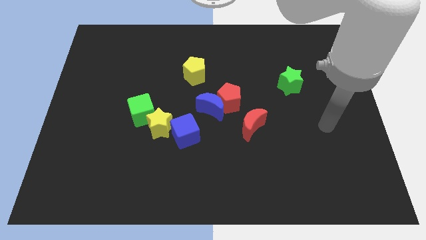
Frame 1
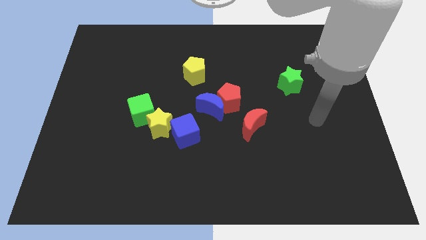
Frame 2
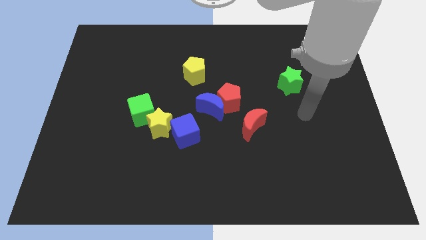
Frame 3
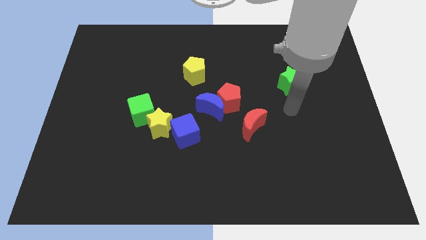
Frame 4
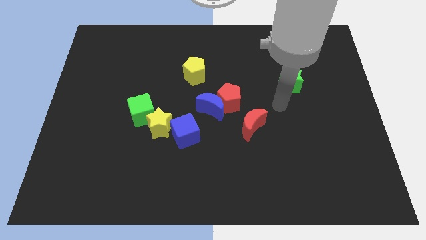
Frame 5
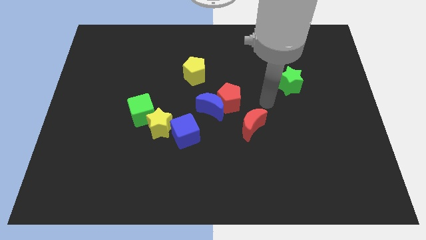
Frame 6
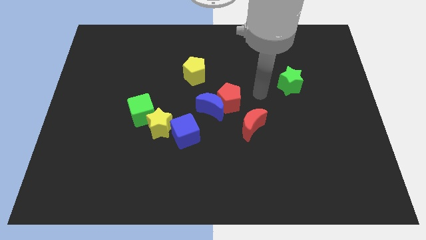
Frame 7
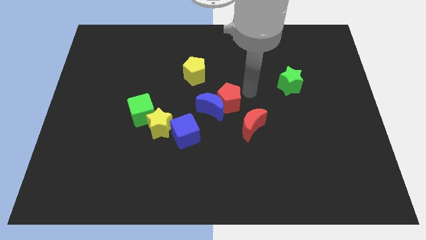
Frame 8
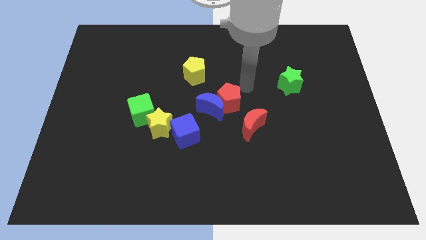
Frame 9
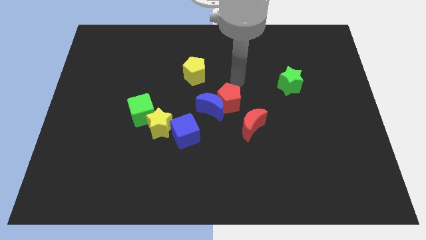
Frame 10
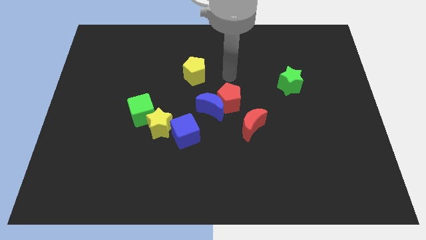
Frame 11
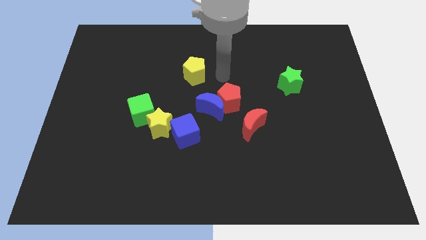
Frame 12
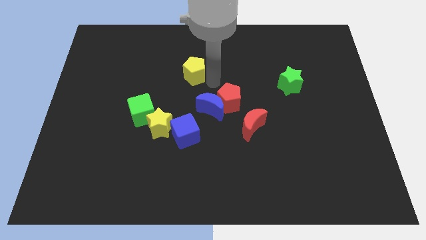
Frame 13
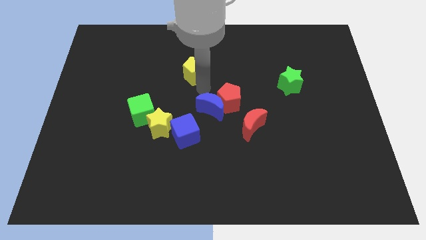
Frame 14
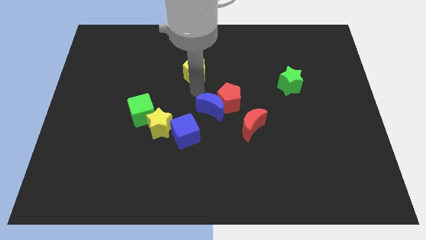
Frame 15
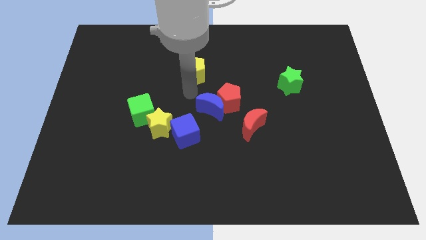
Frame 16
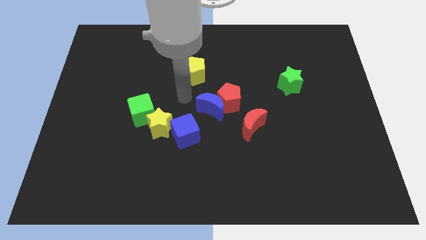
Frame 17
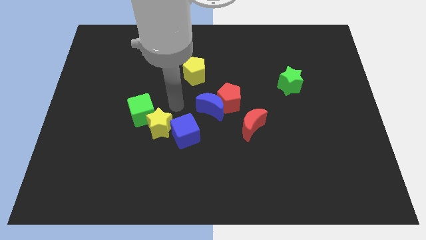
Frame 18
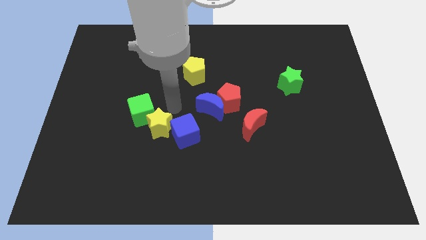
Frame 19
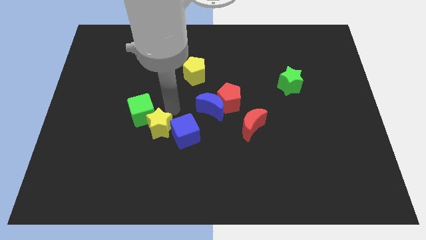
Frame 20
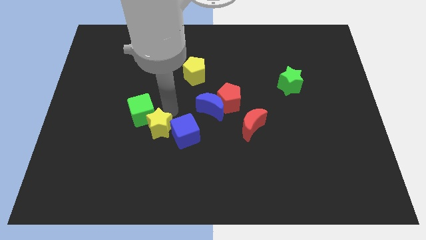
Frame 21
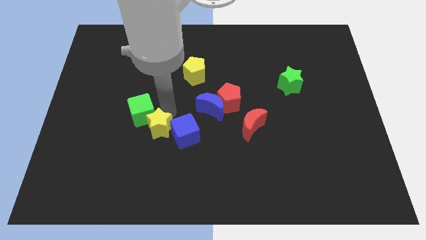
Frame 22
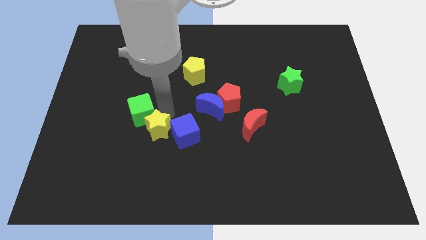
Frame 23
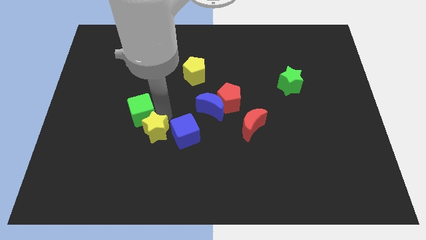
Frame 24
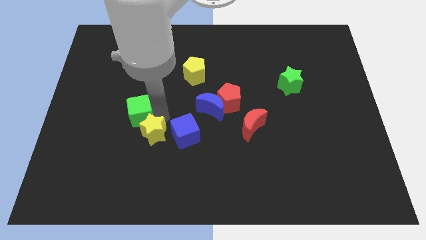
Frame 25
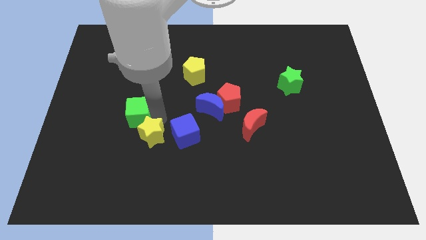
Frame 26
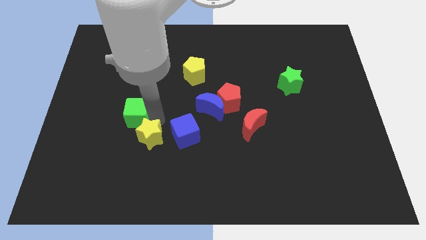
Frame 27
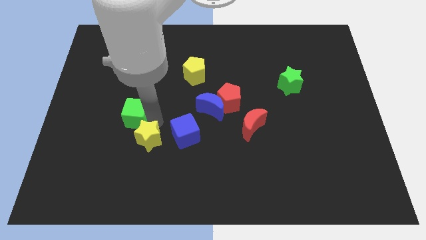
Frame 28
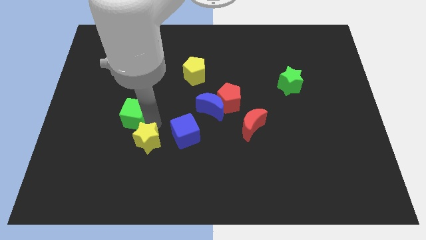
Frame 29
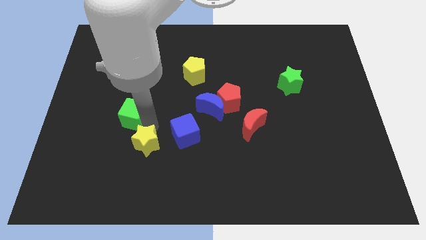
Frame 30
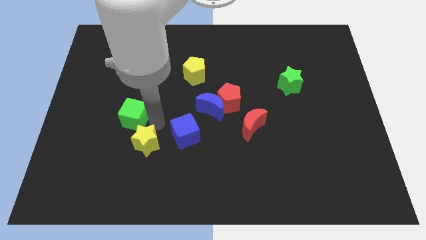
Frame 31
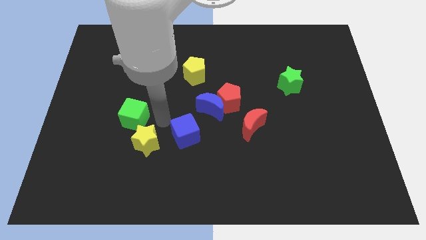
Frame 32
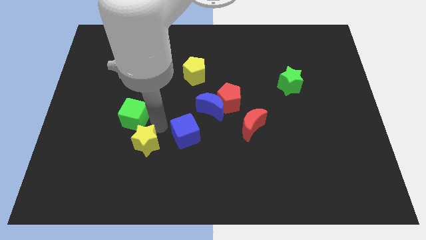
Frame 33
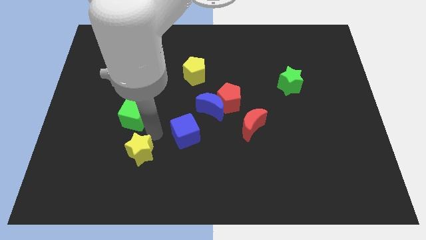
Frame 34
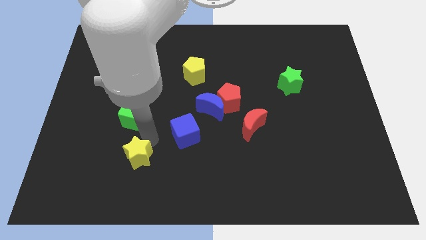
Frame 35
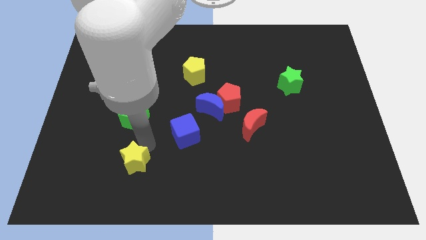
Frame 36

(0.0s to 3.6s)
pull the yellow star apart from the blue cube and green cube

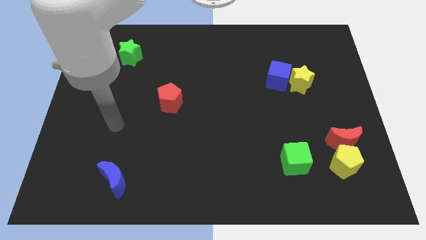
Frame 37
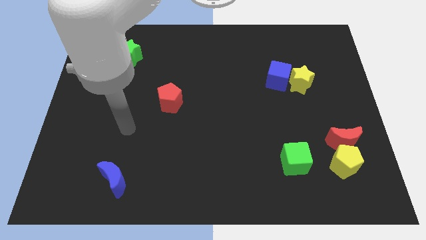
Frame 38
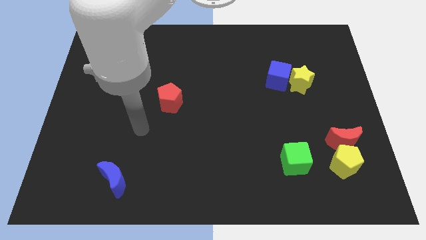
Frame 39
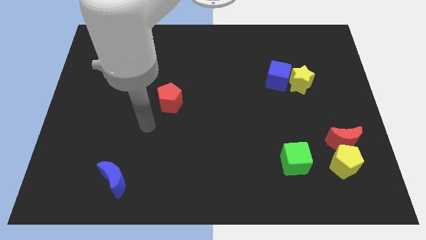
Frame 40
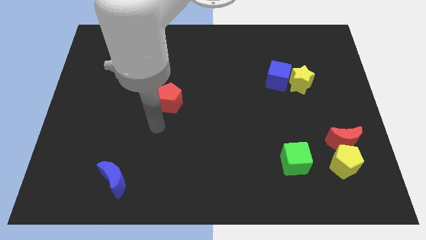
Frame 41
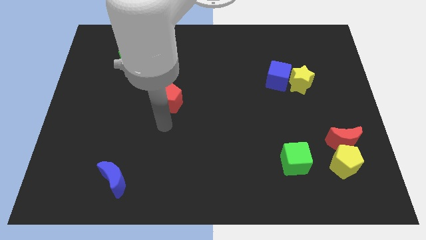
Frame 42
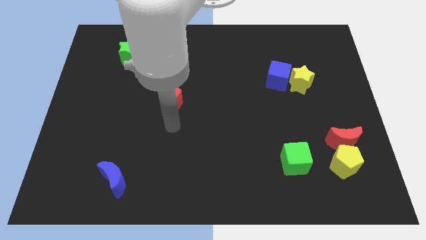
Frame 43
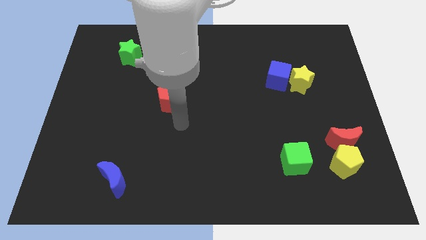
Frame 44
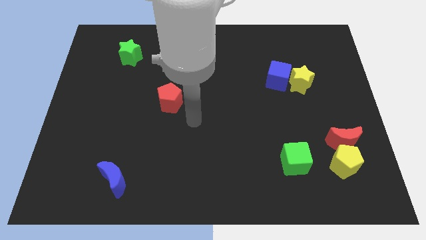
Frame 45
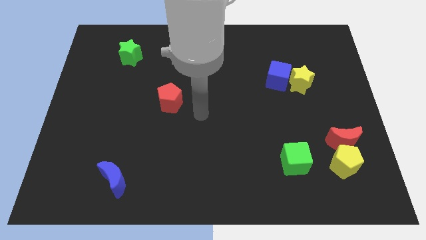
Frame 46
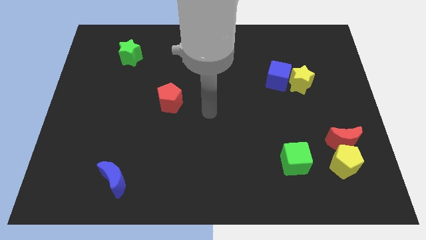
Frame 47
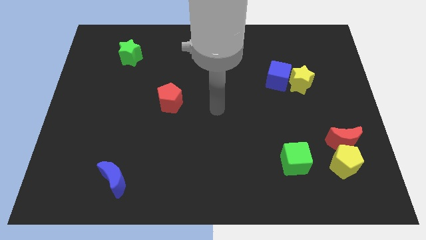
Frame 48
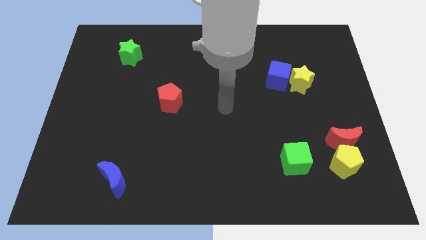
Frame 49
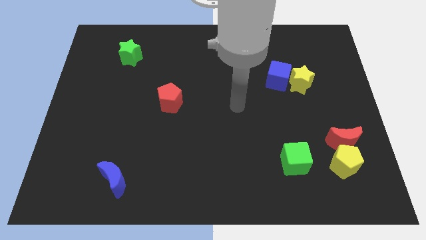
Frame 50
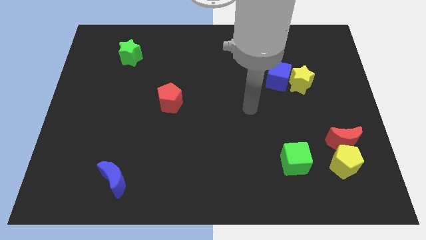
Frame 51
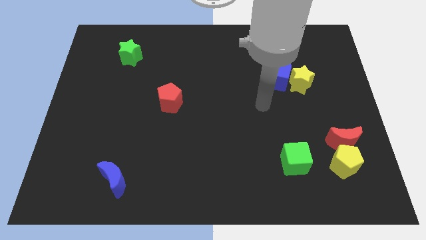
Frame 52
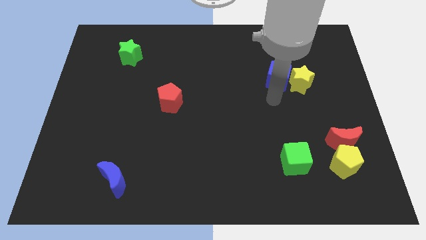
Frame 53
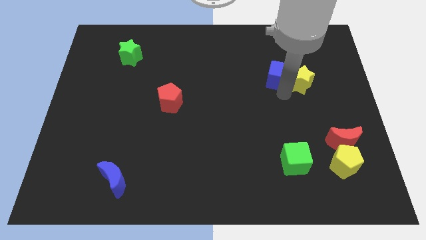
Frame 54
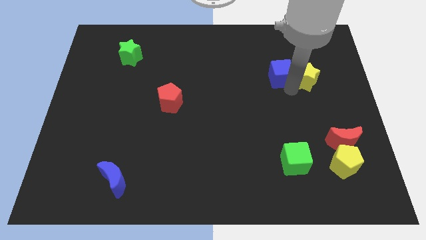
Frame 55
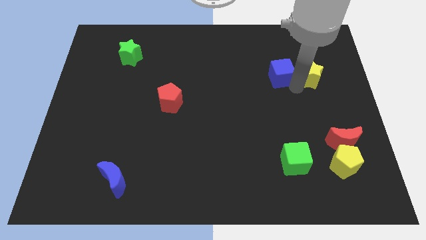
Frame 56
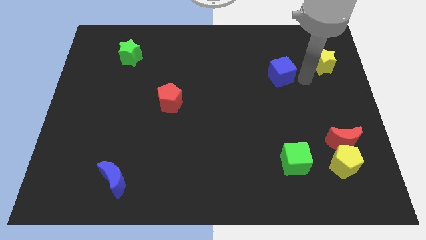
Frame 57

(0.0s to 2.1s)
pull the blue cube apart from the yellow star

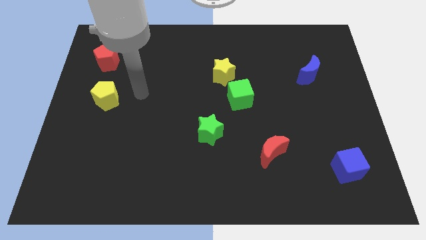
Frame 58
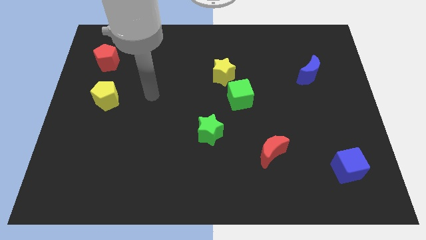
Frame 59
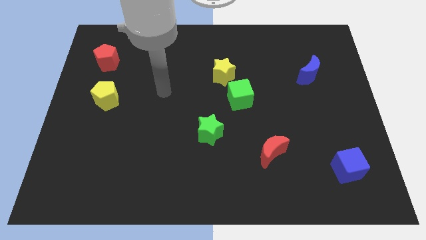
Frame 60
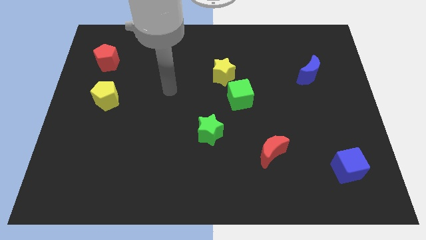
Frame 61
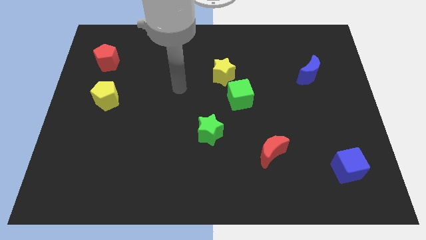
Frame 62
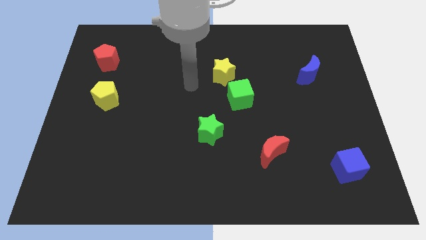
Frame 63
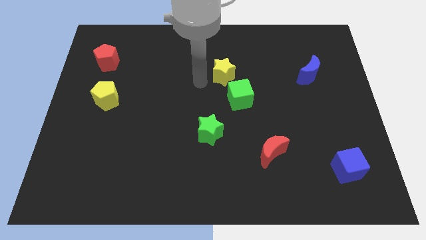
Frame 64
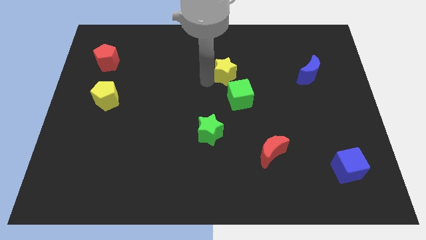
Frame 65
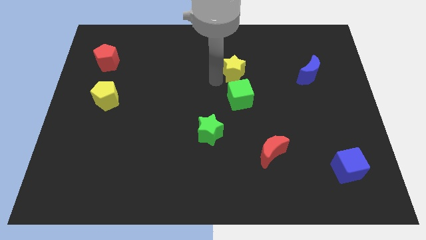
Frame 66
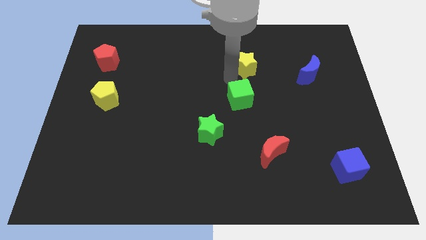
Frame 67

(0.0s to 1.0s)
move the green cube away from the yellow star

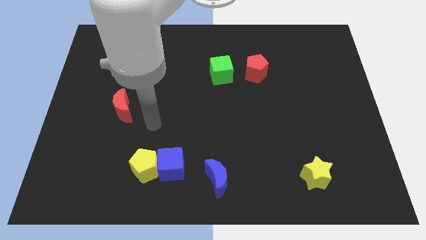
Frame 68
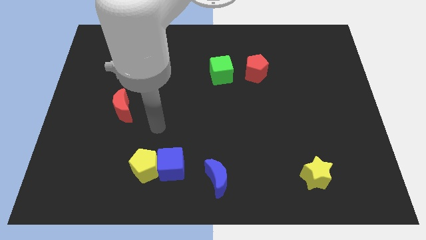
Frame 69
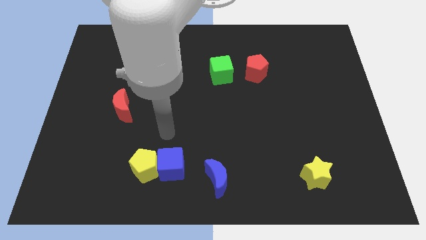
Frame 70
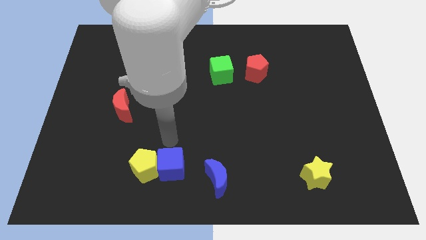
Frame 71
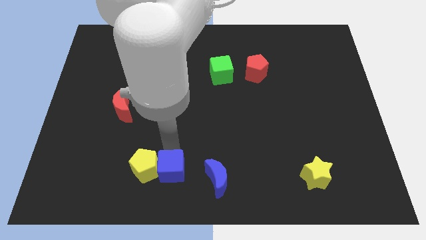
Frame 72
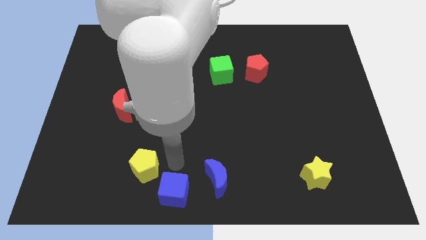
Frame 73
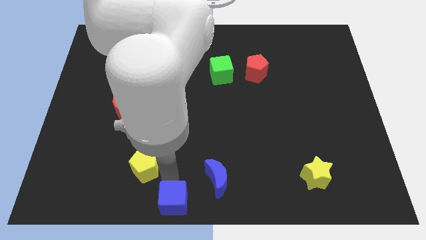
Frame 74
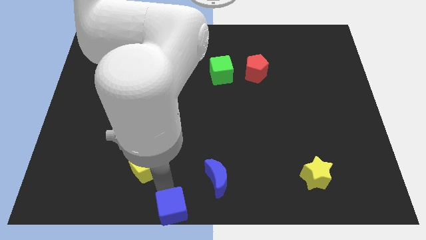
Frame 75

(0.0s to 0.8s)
pull the yellow pentagon apart from the blue cube

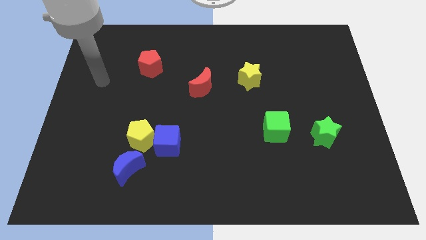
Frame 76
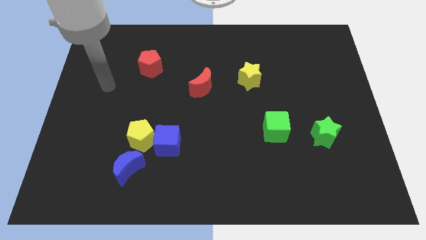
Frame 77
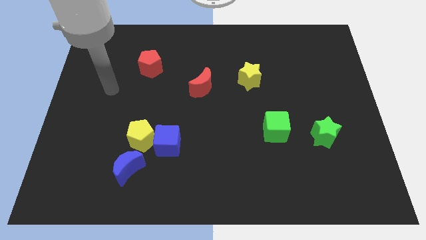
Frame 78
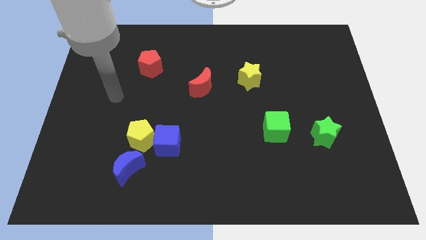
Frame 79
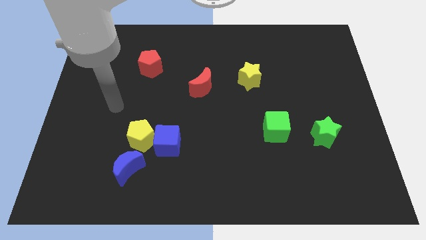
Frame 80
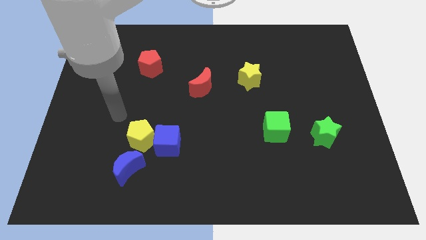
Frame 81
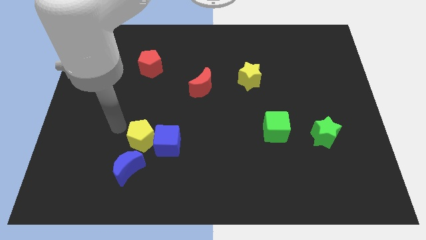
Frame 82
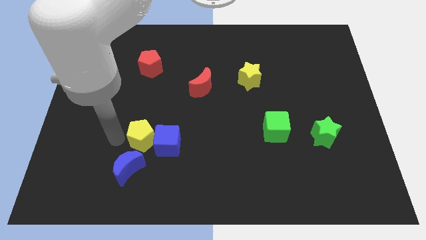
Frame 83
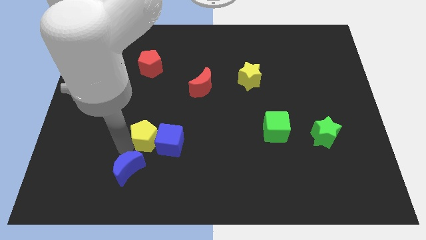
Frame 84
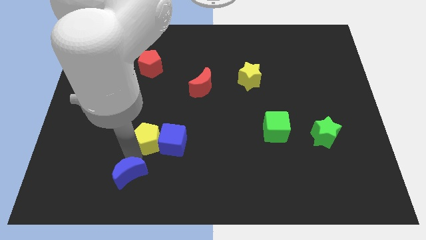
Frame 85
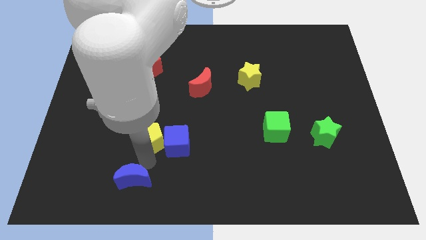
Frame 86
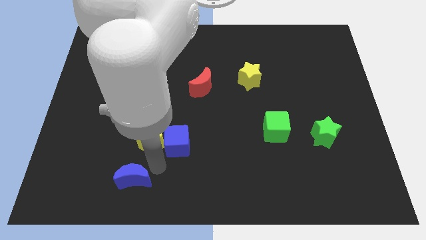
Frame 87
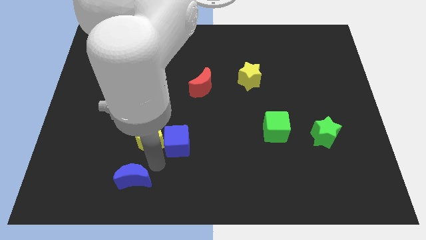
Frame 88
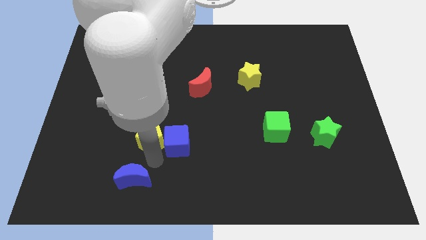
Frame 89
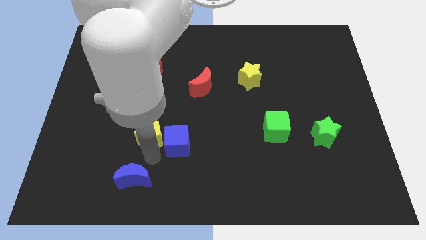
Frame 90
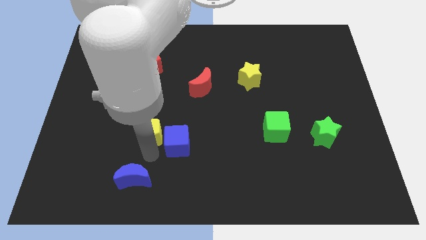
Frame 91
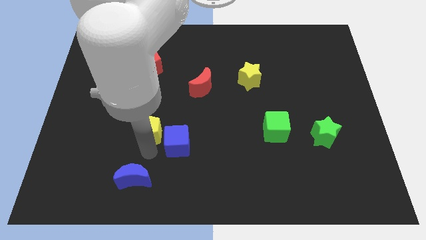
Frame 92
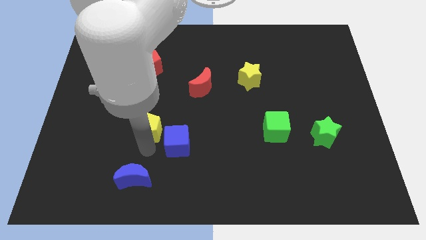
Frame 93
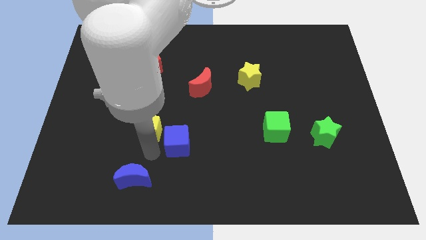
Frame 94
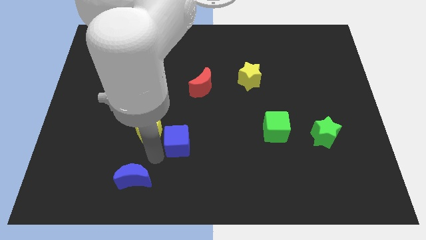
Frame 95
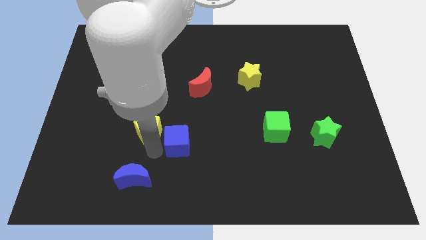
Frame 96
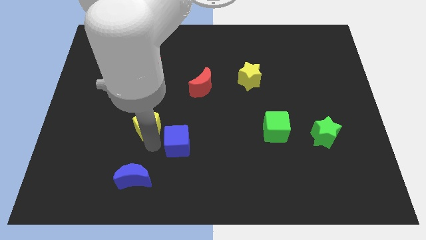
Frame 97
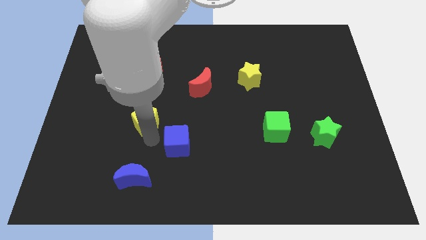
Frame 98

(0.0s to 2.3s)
move the yellow pentagon away from the blue cube and blue moon
